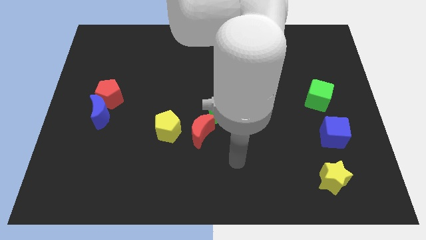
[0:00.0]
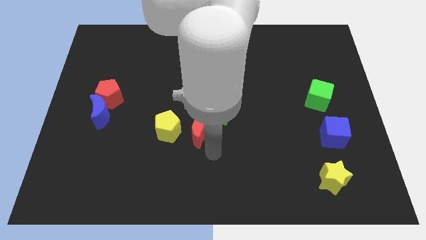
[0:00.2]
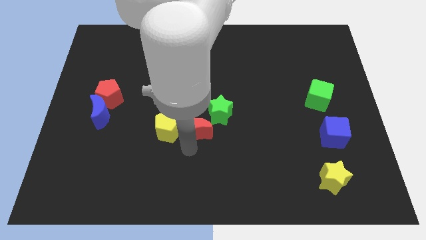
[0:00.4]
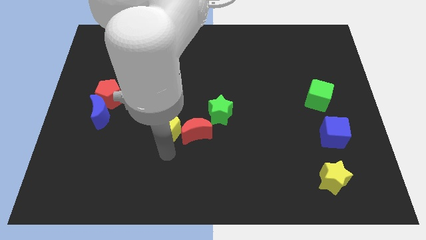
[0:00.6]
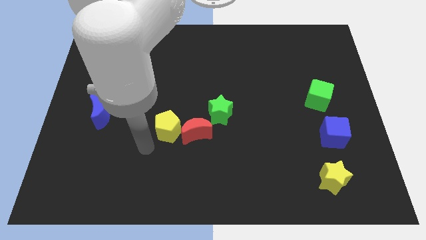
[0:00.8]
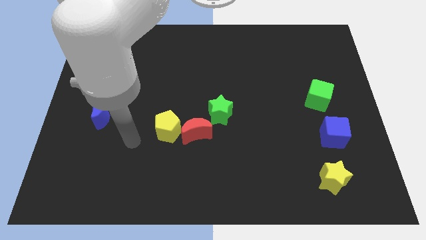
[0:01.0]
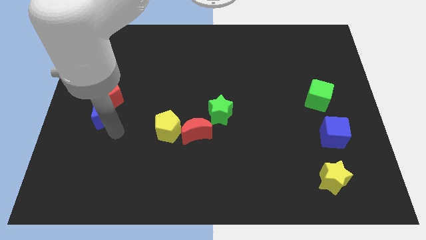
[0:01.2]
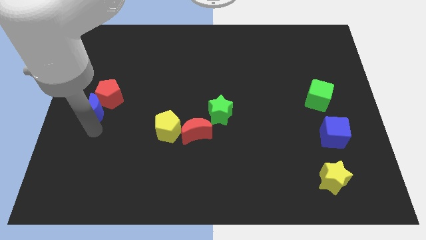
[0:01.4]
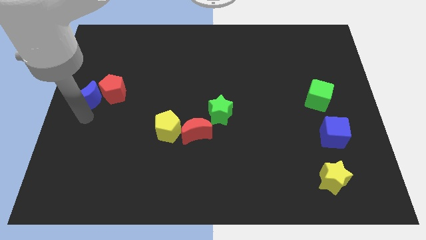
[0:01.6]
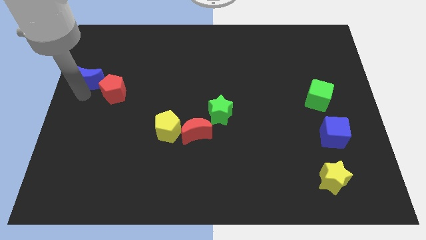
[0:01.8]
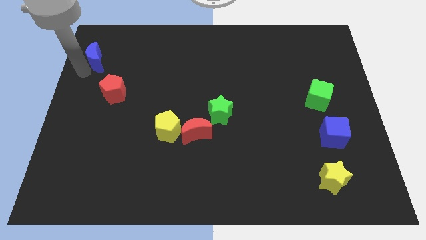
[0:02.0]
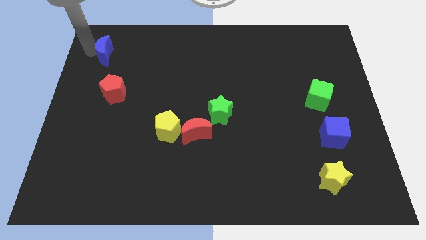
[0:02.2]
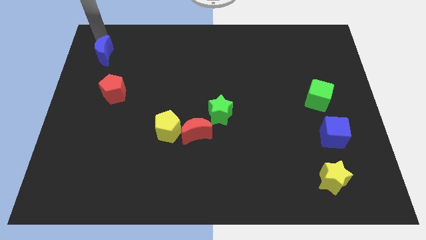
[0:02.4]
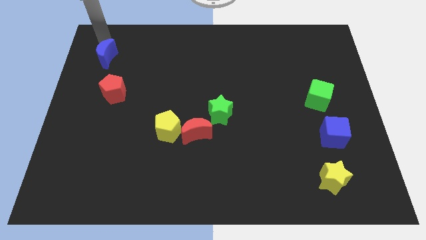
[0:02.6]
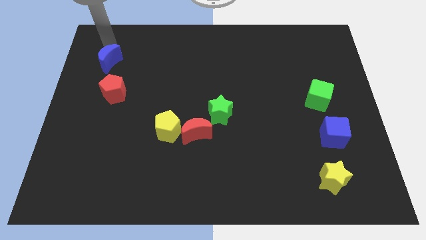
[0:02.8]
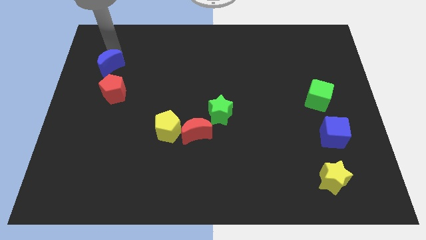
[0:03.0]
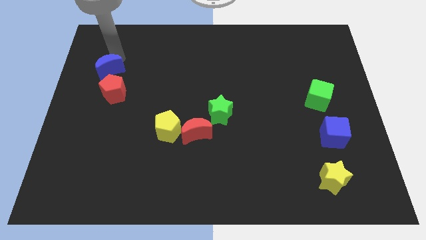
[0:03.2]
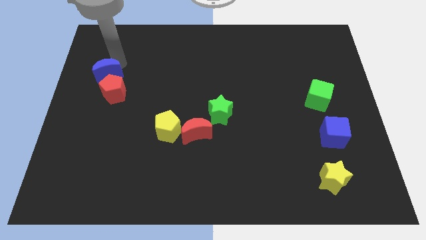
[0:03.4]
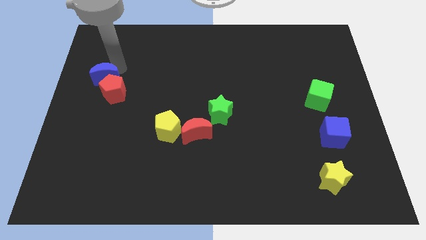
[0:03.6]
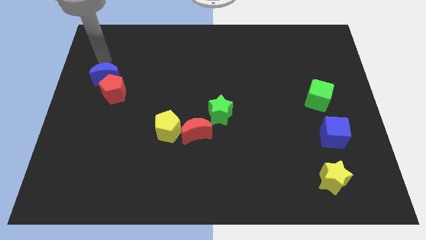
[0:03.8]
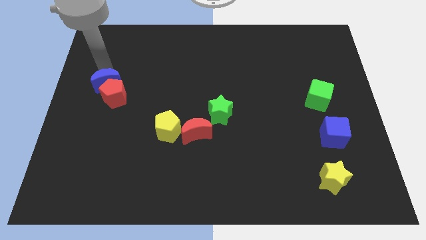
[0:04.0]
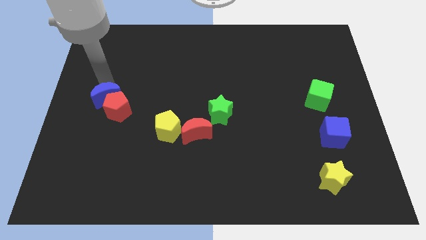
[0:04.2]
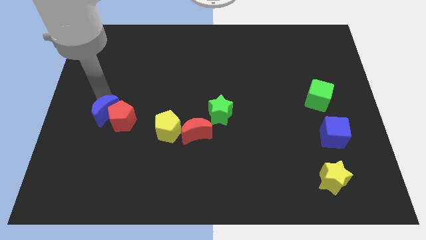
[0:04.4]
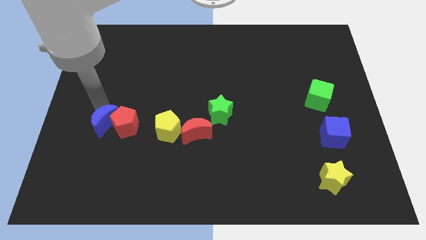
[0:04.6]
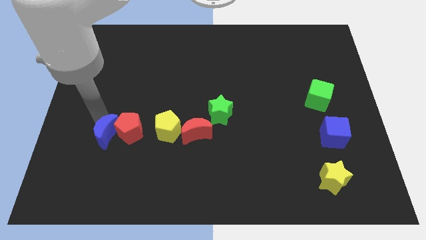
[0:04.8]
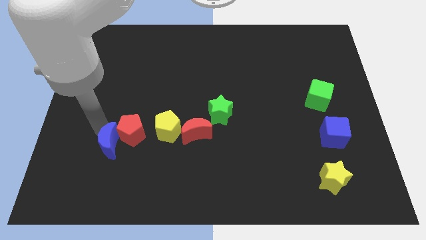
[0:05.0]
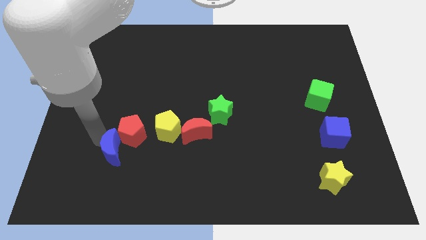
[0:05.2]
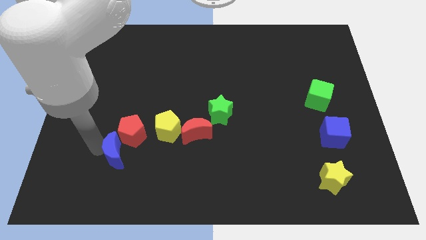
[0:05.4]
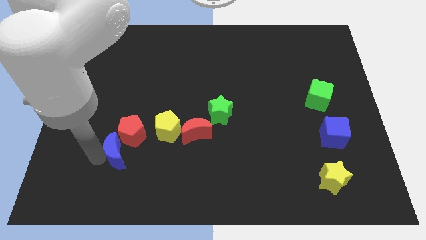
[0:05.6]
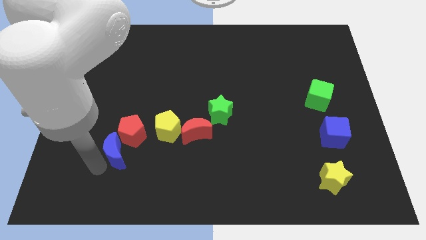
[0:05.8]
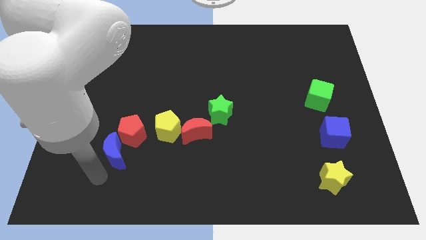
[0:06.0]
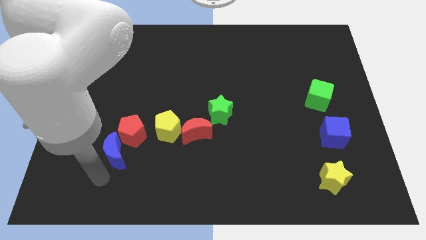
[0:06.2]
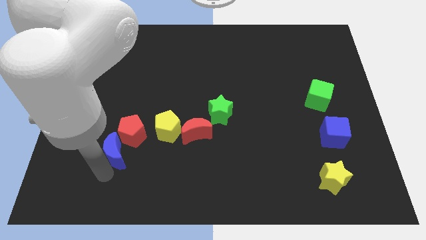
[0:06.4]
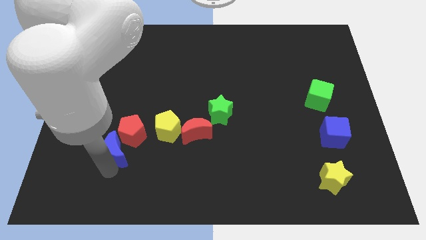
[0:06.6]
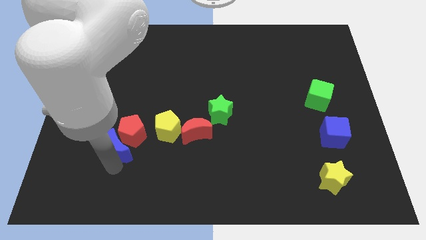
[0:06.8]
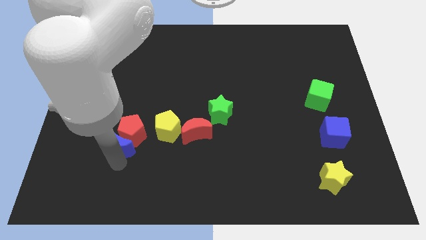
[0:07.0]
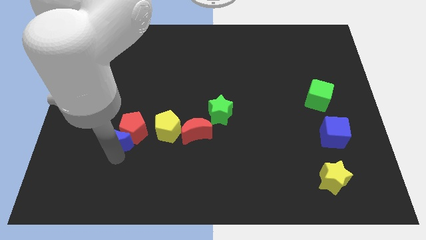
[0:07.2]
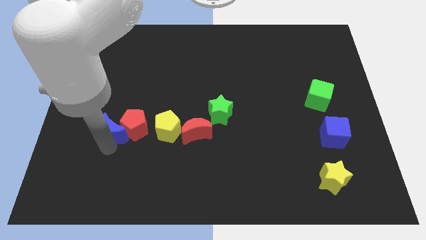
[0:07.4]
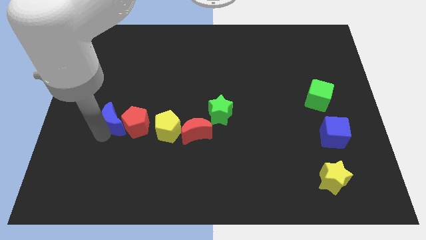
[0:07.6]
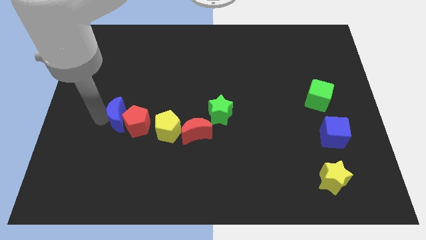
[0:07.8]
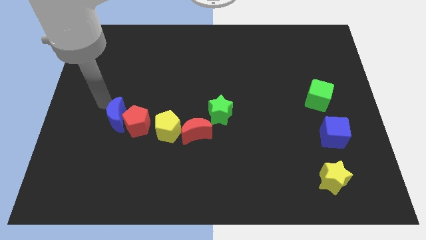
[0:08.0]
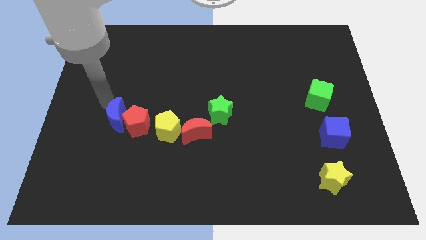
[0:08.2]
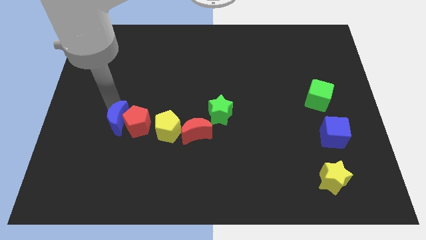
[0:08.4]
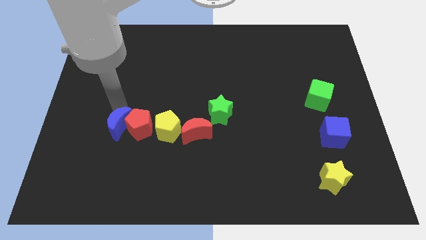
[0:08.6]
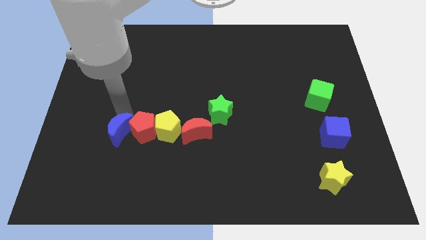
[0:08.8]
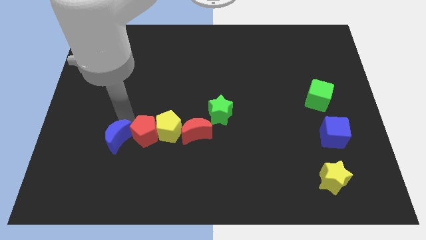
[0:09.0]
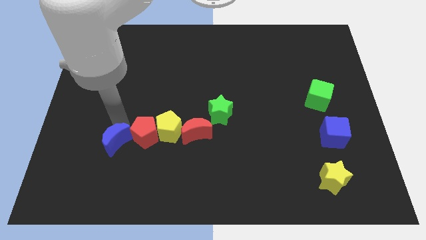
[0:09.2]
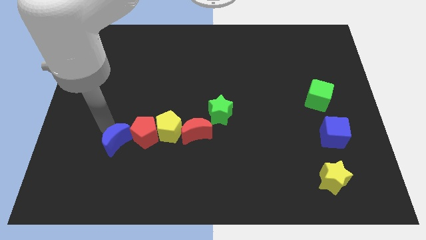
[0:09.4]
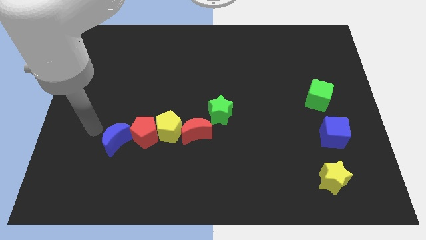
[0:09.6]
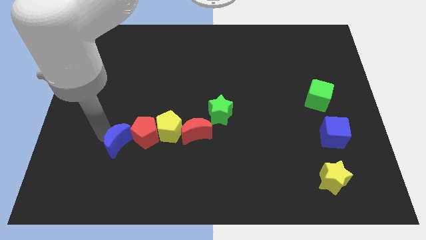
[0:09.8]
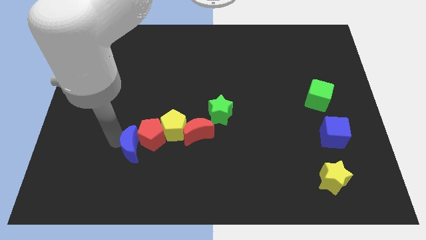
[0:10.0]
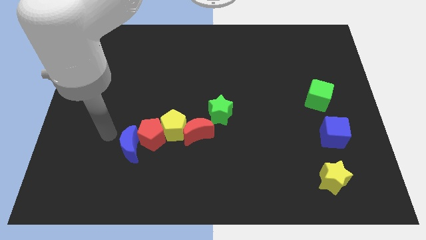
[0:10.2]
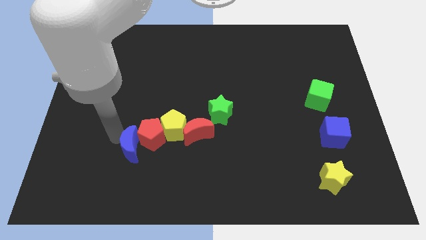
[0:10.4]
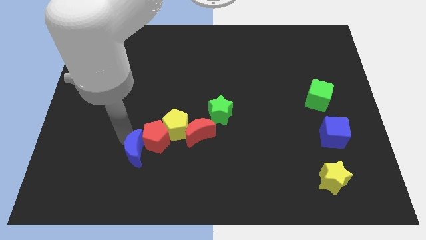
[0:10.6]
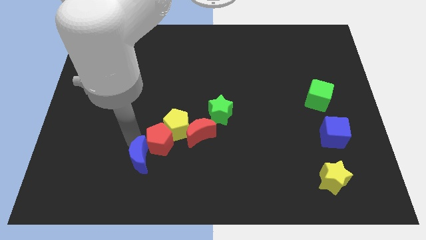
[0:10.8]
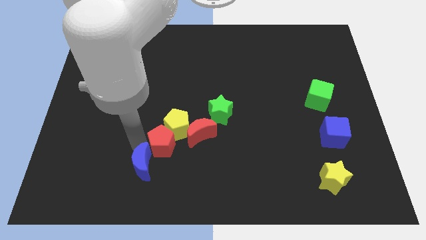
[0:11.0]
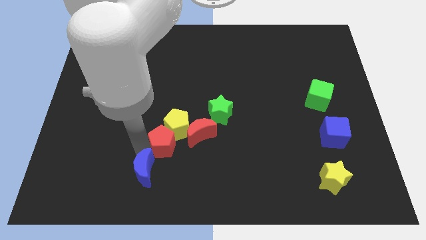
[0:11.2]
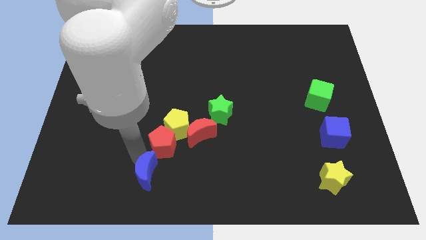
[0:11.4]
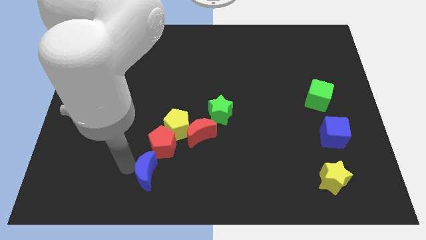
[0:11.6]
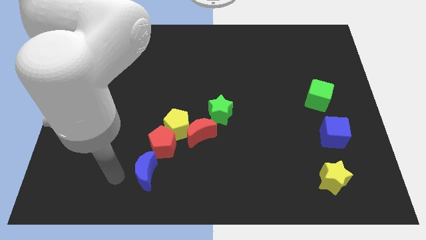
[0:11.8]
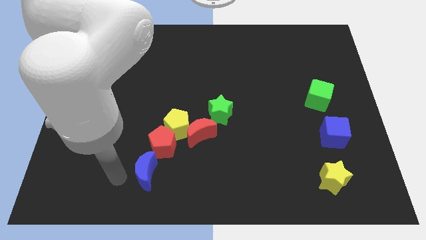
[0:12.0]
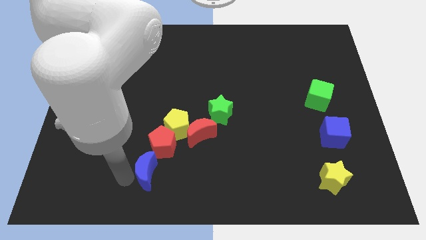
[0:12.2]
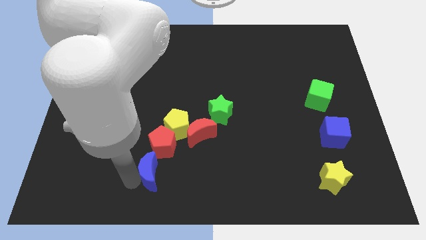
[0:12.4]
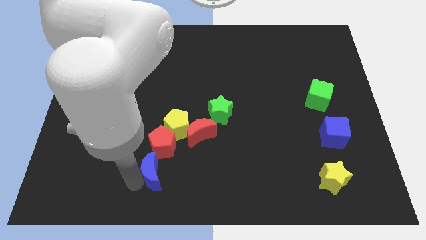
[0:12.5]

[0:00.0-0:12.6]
slide the blue moon to the bottom side of the yellow pentagon

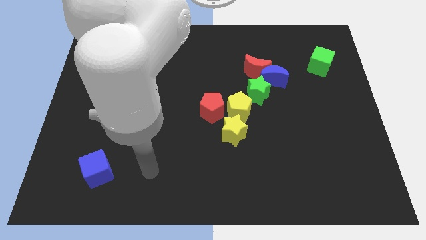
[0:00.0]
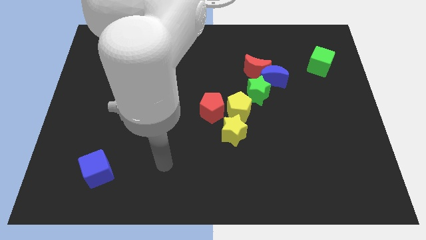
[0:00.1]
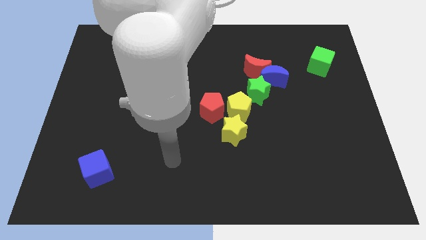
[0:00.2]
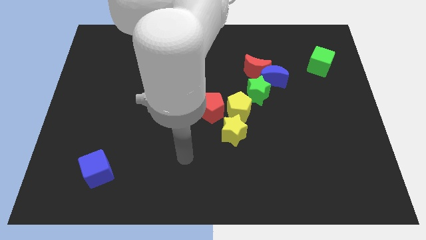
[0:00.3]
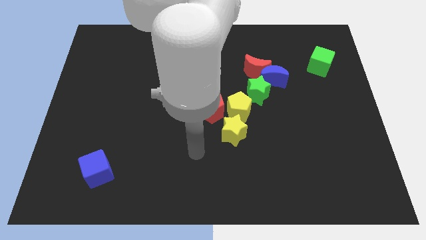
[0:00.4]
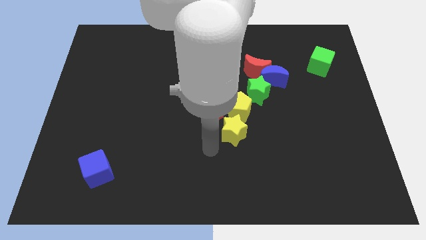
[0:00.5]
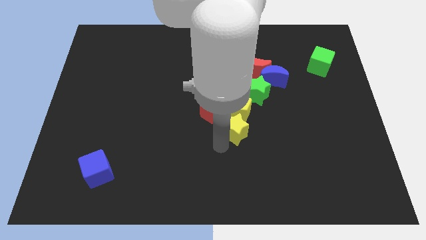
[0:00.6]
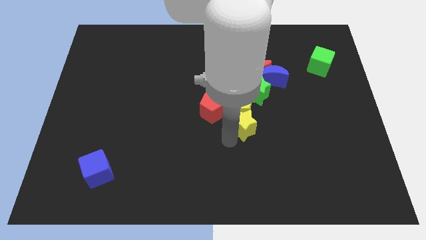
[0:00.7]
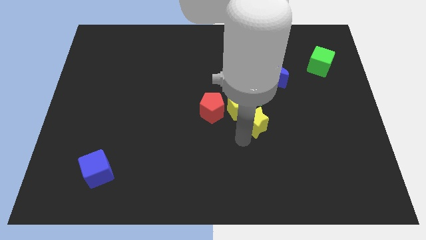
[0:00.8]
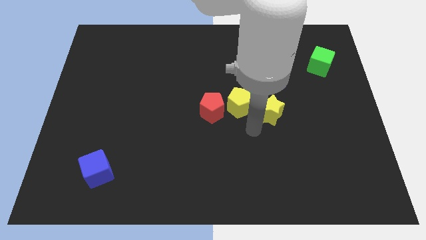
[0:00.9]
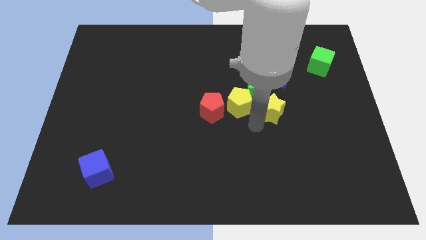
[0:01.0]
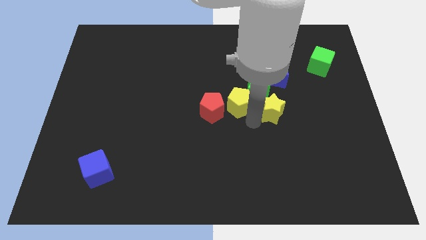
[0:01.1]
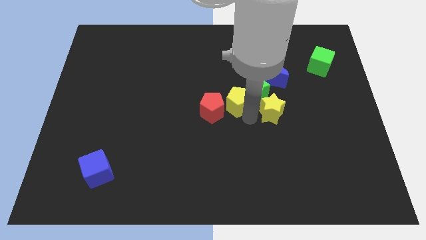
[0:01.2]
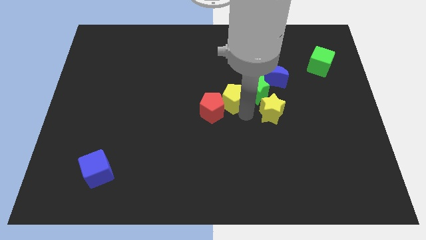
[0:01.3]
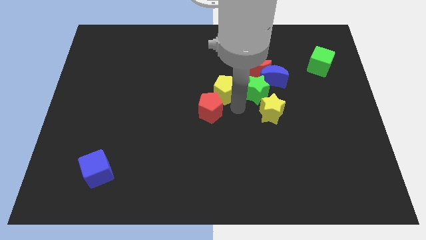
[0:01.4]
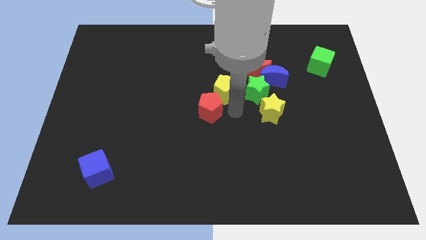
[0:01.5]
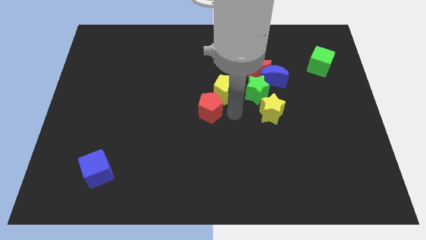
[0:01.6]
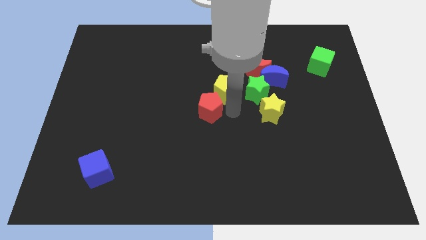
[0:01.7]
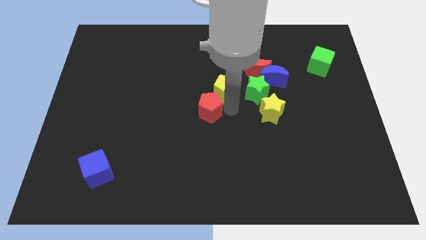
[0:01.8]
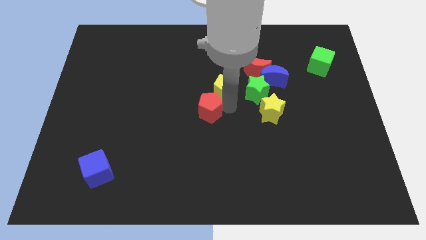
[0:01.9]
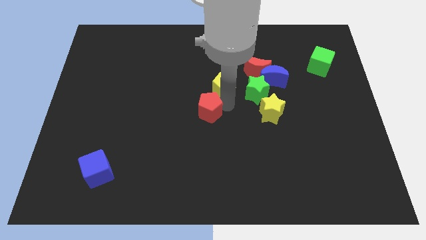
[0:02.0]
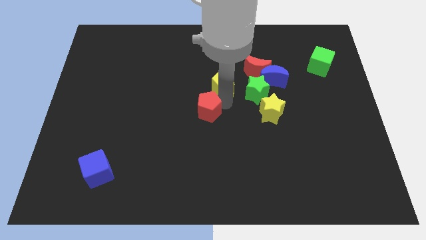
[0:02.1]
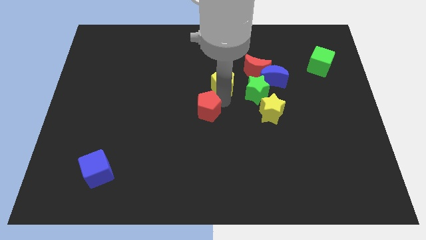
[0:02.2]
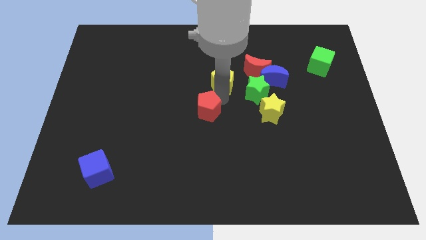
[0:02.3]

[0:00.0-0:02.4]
push the yellow pentagon to the left of the red moon
